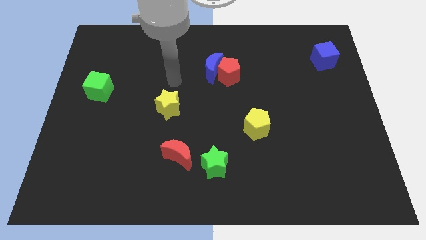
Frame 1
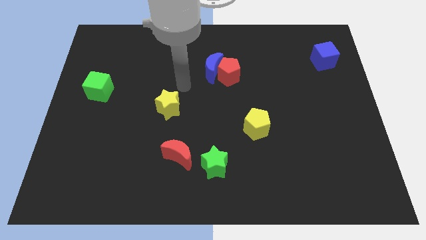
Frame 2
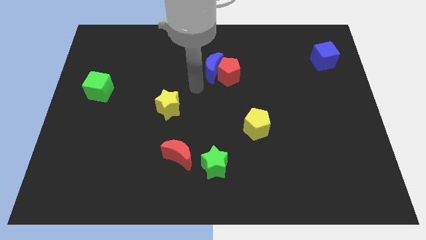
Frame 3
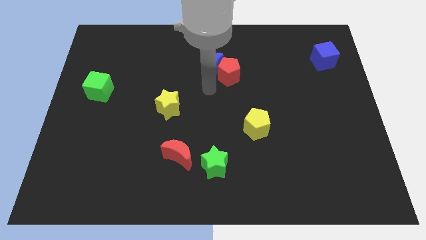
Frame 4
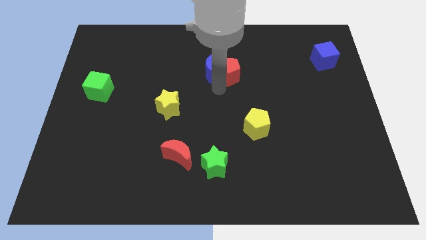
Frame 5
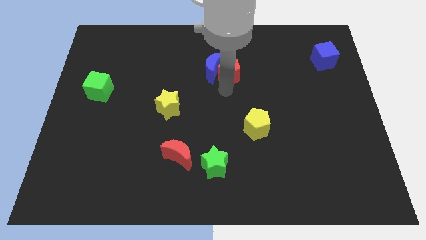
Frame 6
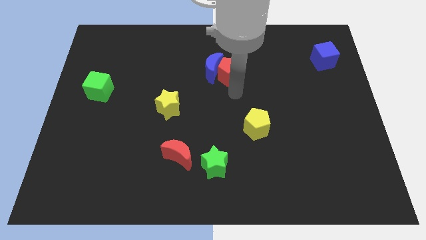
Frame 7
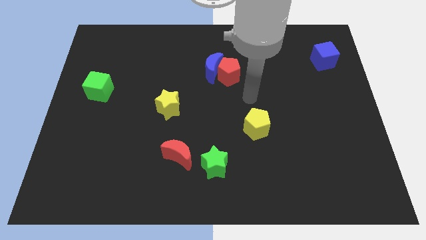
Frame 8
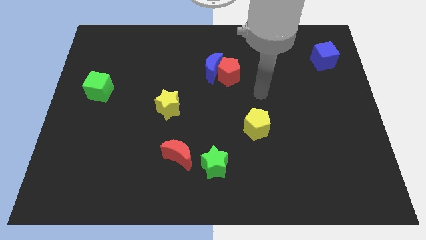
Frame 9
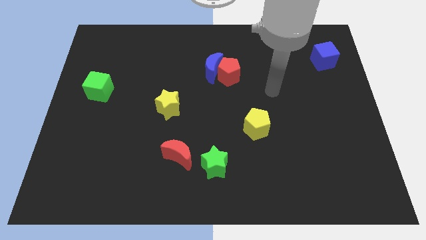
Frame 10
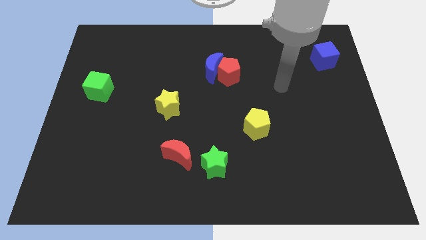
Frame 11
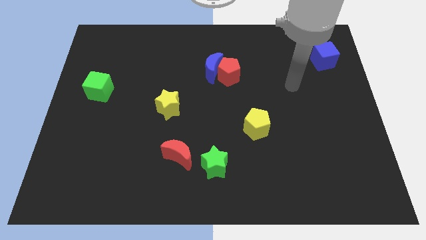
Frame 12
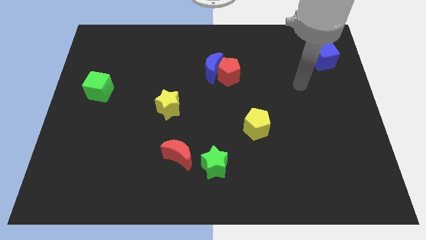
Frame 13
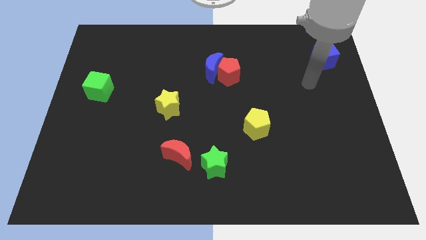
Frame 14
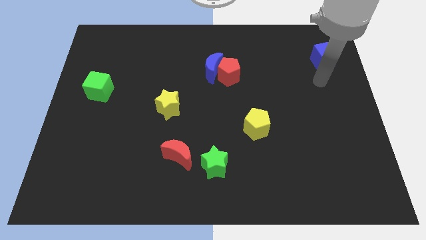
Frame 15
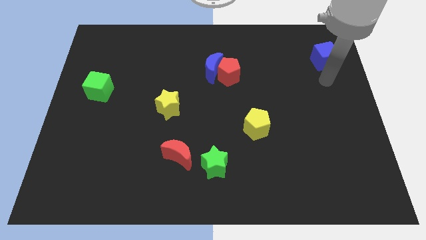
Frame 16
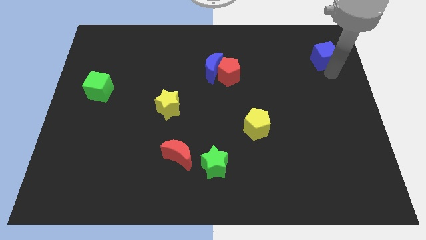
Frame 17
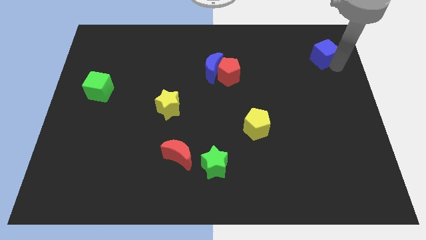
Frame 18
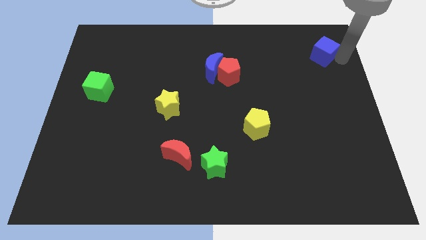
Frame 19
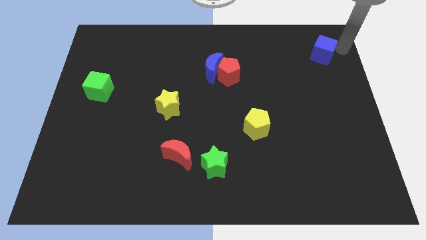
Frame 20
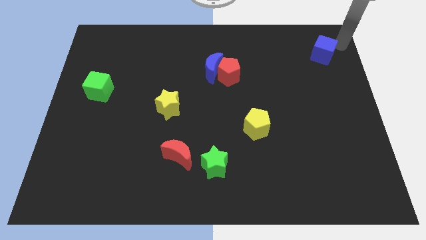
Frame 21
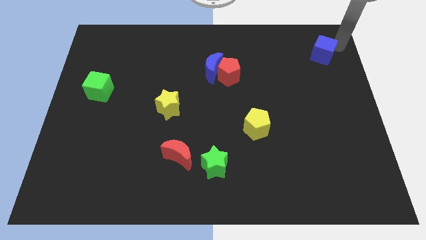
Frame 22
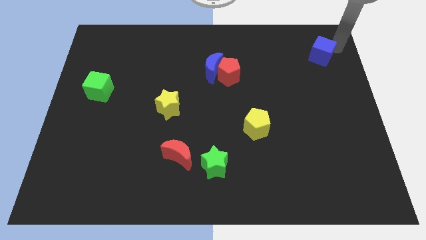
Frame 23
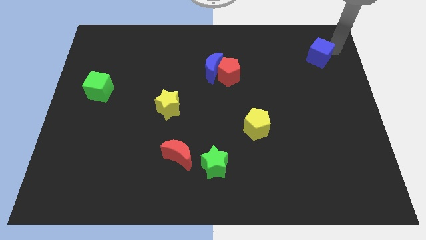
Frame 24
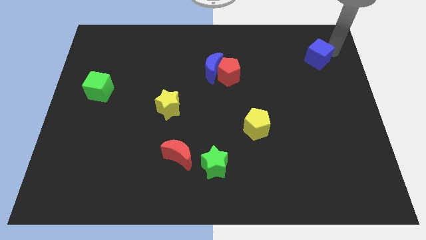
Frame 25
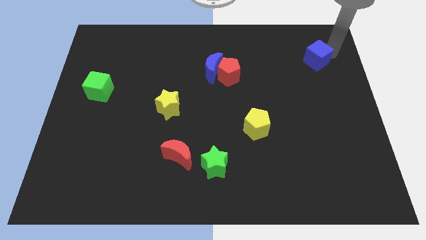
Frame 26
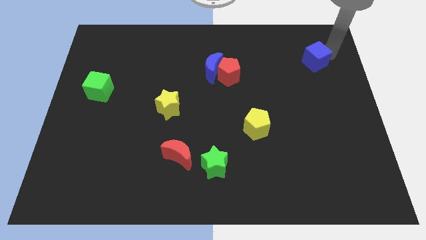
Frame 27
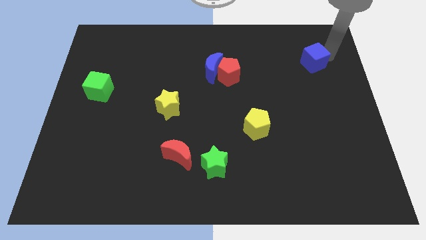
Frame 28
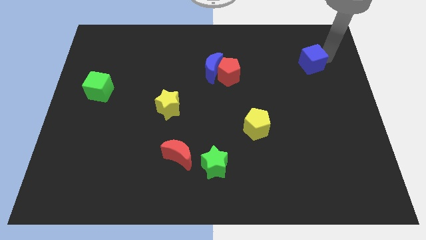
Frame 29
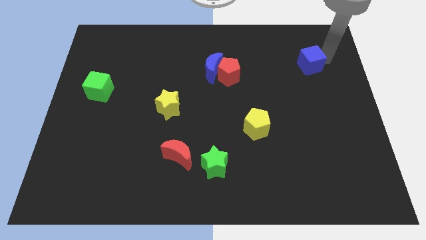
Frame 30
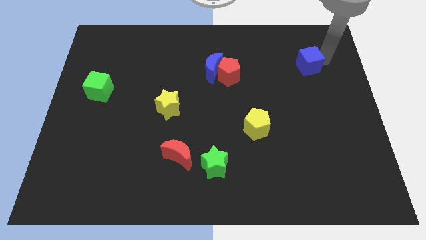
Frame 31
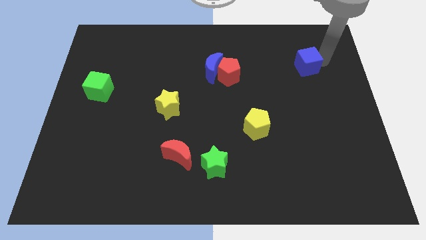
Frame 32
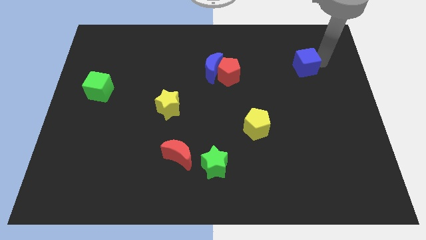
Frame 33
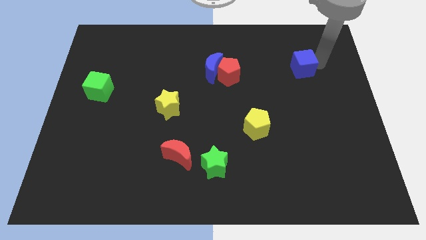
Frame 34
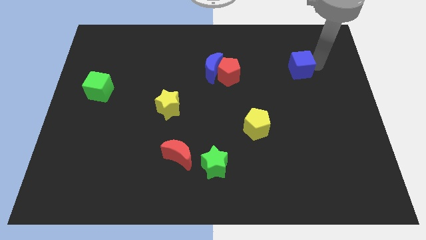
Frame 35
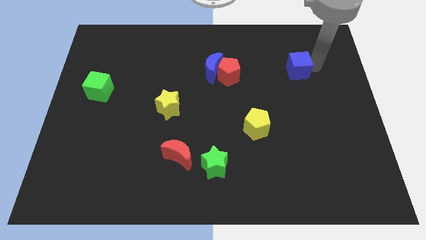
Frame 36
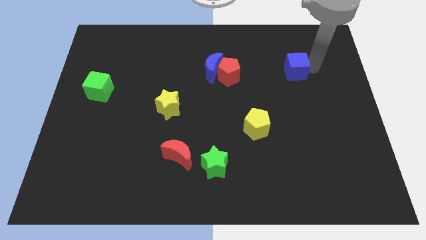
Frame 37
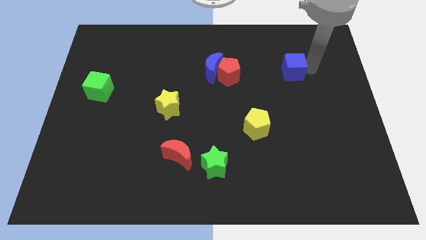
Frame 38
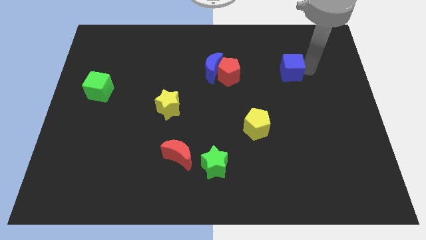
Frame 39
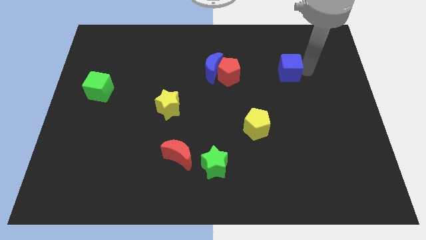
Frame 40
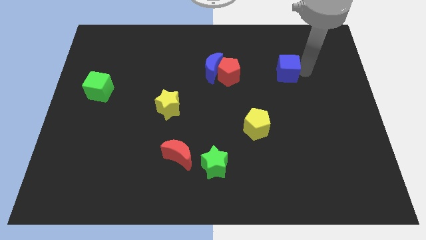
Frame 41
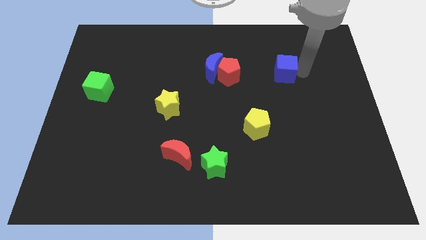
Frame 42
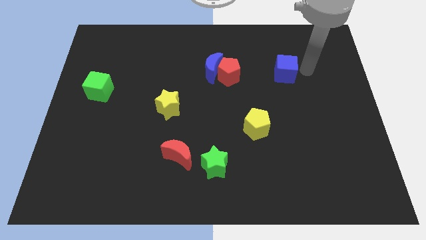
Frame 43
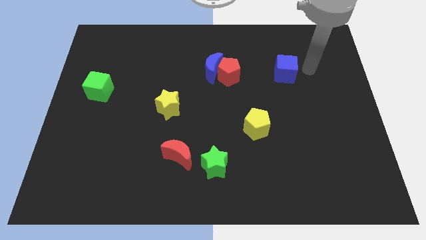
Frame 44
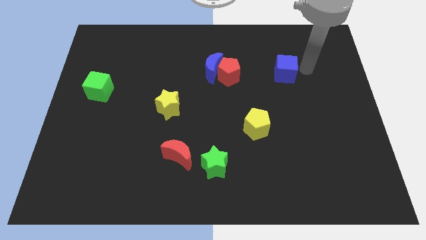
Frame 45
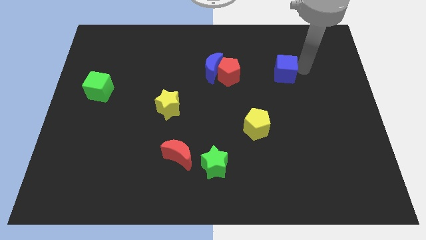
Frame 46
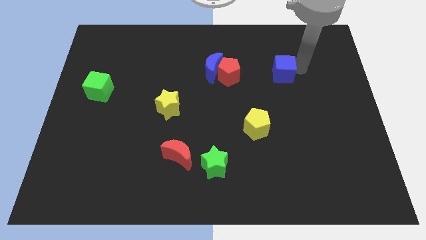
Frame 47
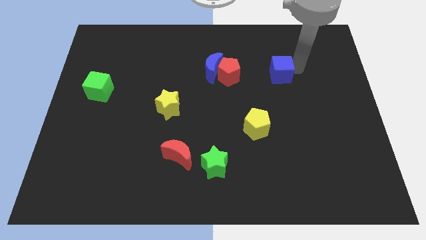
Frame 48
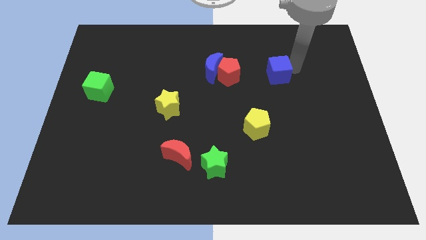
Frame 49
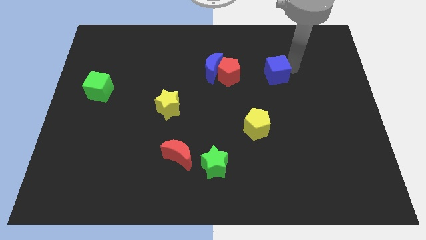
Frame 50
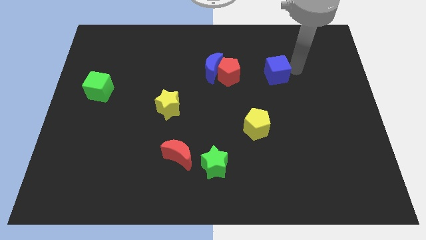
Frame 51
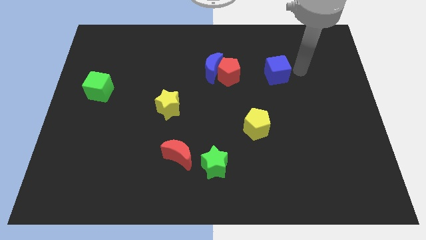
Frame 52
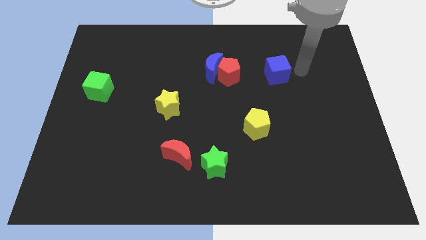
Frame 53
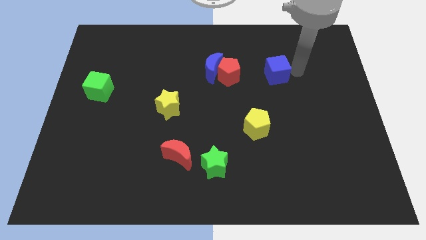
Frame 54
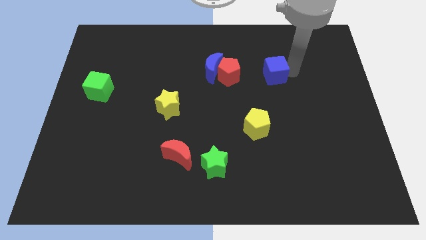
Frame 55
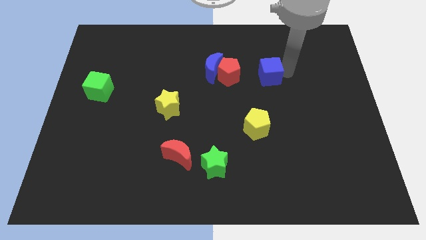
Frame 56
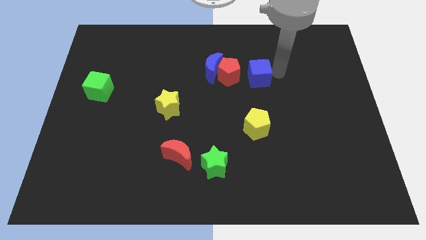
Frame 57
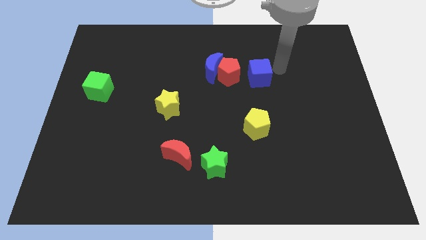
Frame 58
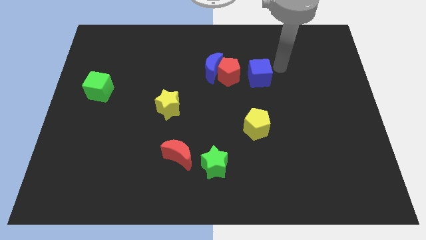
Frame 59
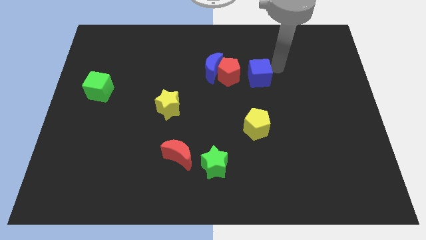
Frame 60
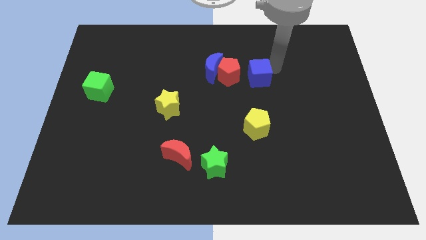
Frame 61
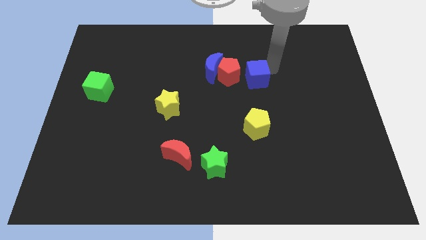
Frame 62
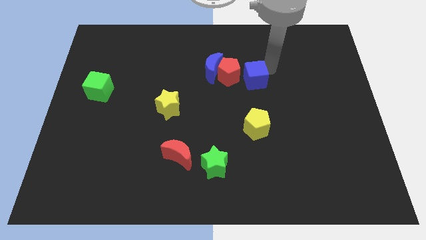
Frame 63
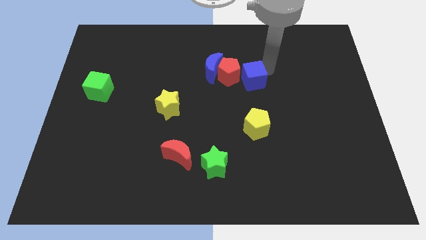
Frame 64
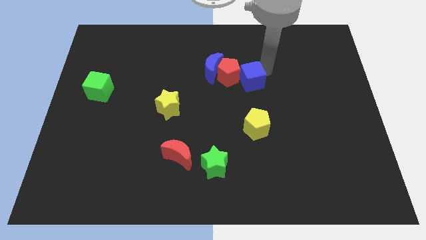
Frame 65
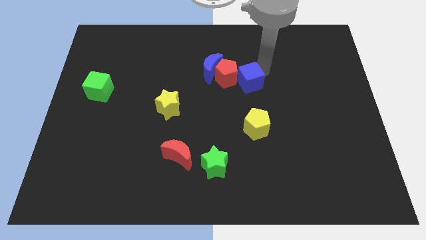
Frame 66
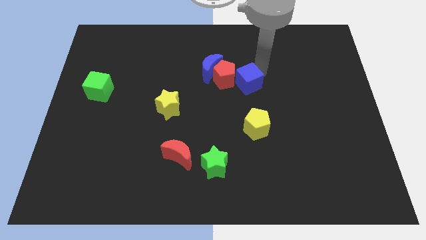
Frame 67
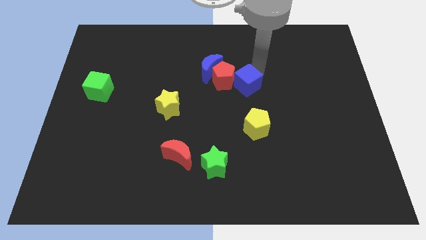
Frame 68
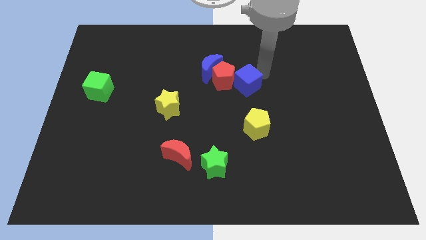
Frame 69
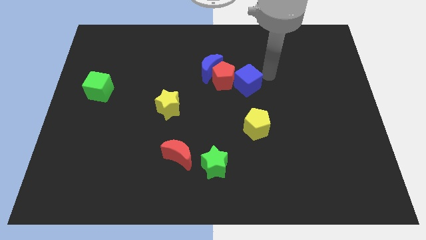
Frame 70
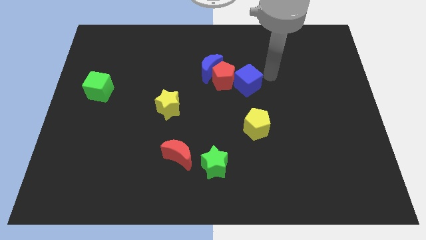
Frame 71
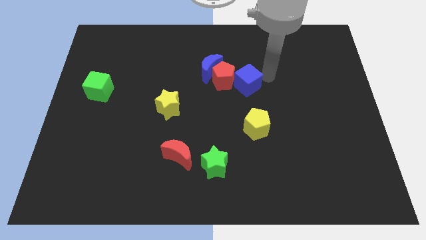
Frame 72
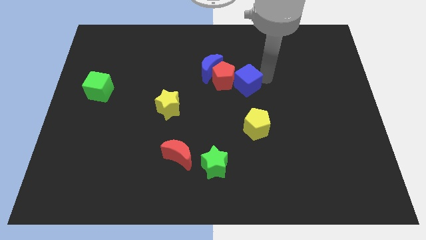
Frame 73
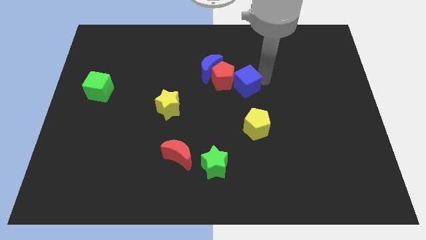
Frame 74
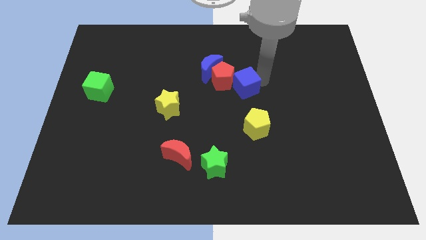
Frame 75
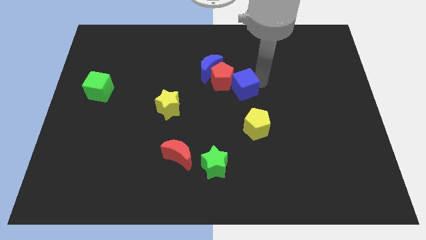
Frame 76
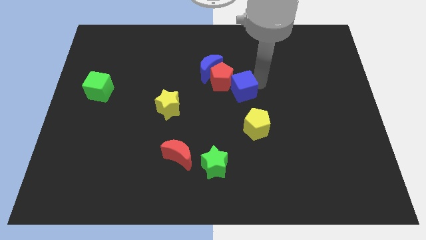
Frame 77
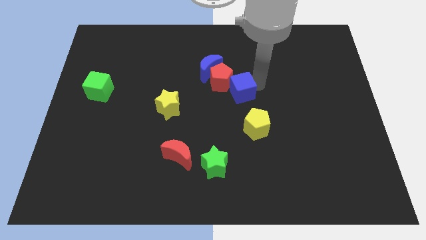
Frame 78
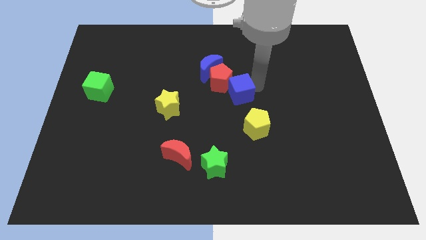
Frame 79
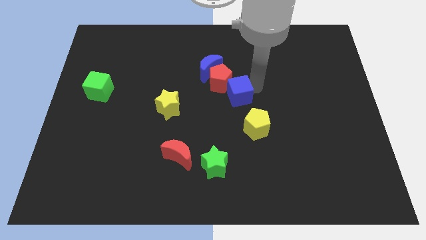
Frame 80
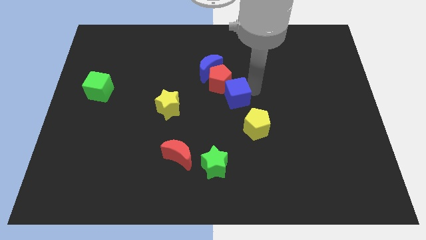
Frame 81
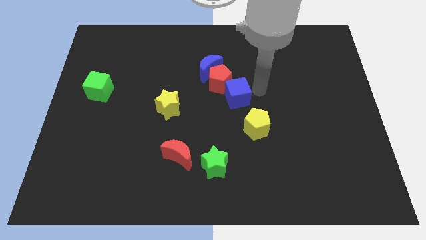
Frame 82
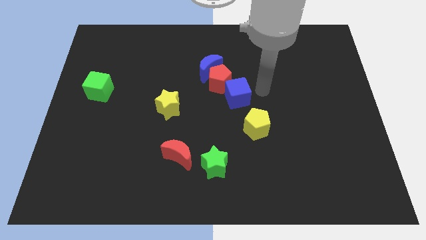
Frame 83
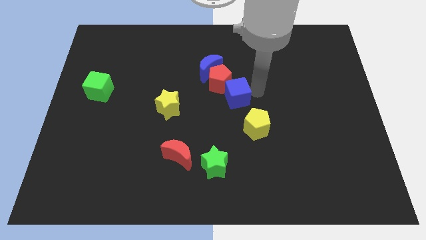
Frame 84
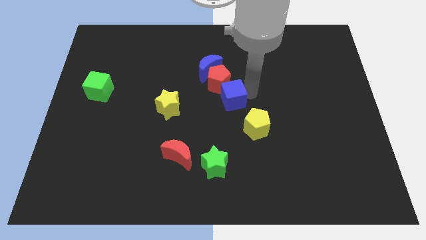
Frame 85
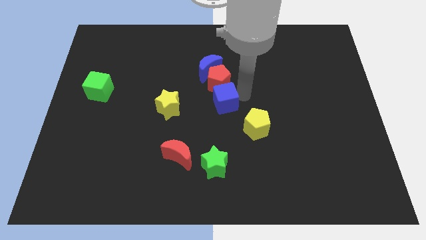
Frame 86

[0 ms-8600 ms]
push the blue cube to the bottom of the blue moon
